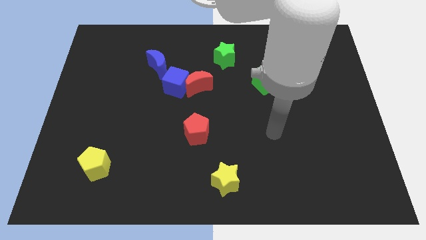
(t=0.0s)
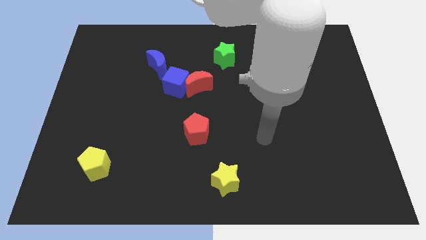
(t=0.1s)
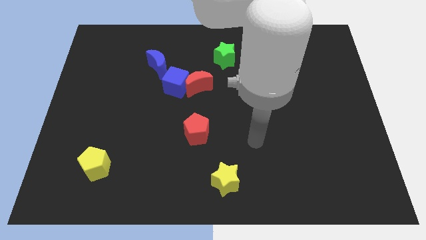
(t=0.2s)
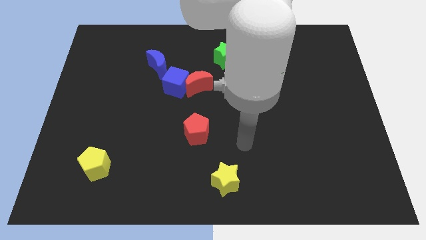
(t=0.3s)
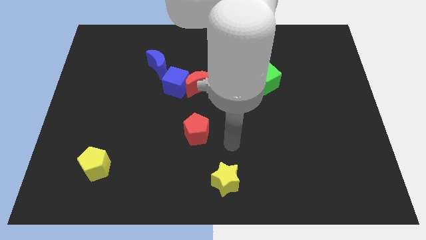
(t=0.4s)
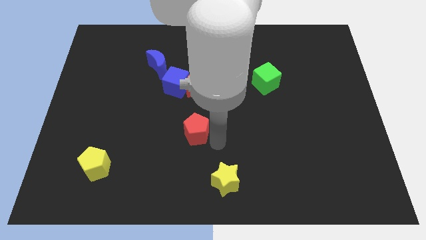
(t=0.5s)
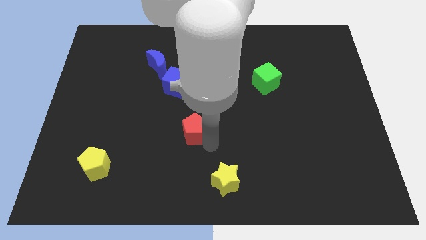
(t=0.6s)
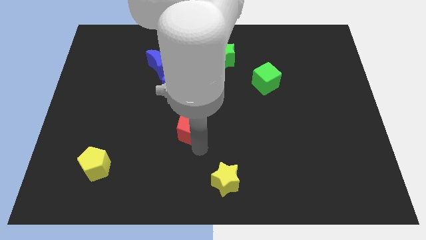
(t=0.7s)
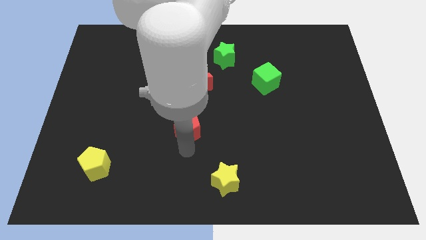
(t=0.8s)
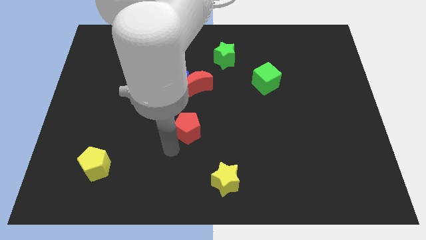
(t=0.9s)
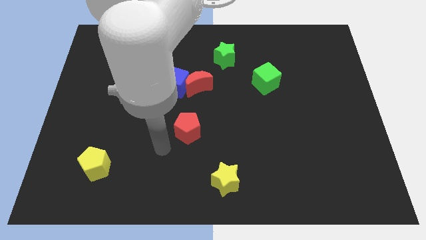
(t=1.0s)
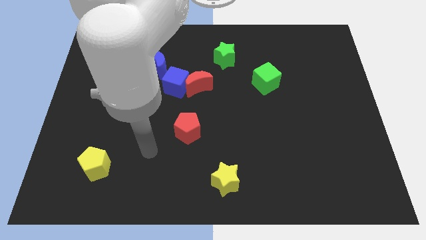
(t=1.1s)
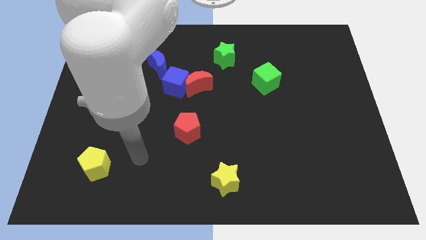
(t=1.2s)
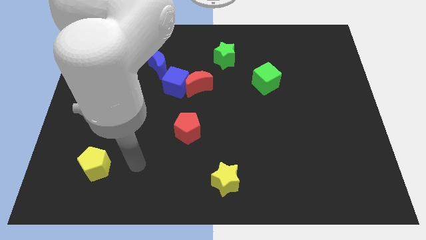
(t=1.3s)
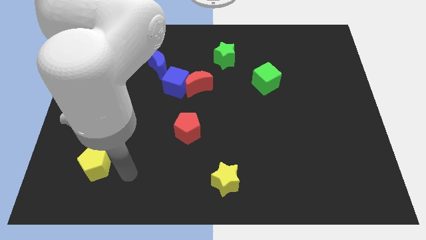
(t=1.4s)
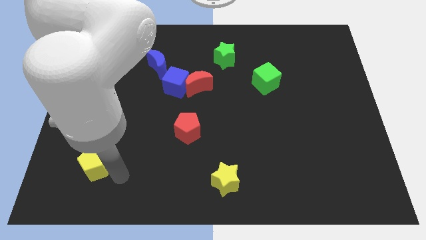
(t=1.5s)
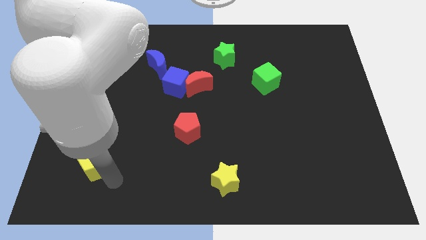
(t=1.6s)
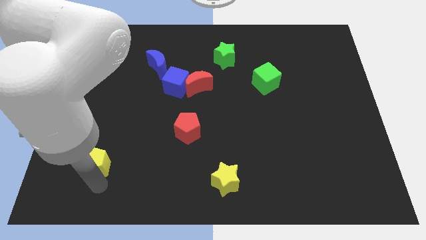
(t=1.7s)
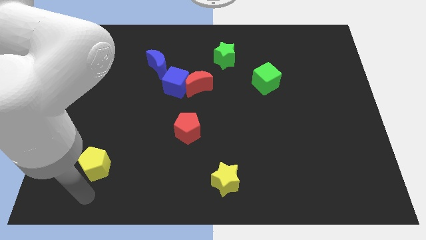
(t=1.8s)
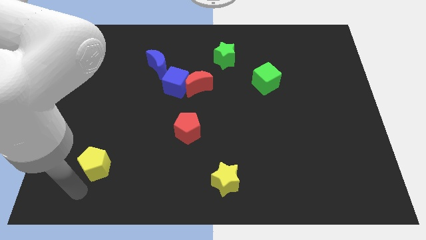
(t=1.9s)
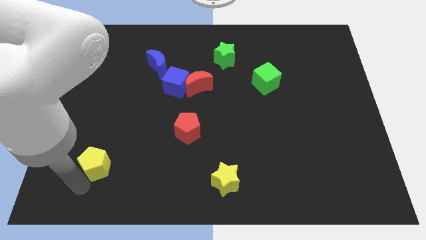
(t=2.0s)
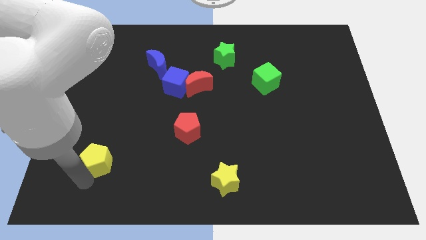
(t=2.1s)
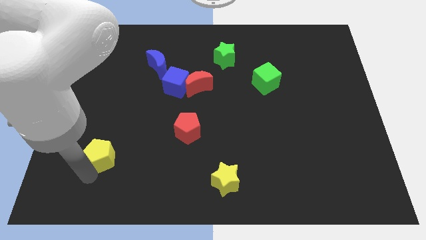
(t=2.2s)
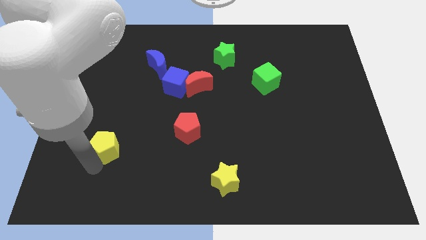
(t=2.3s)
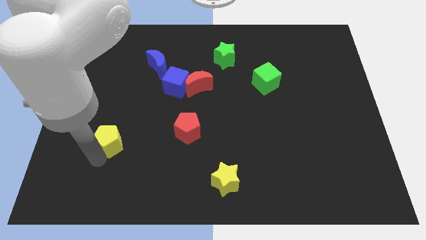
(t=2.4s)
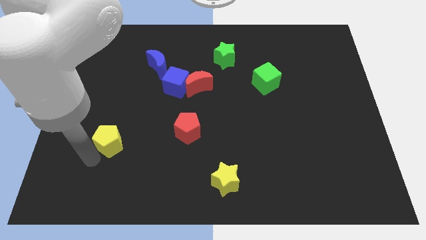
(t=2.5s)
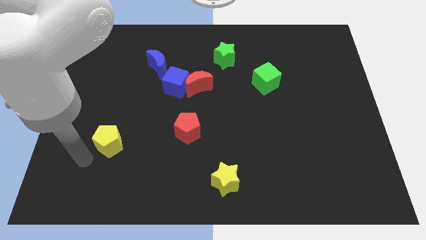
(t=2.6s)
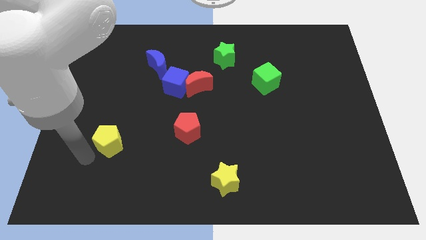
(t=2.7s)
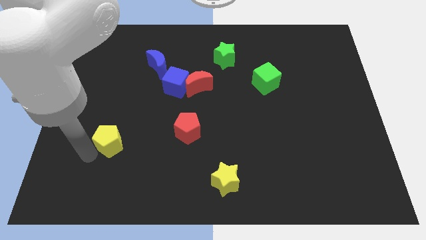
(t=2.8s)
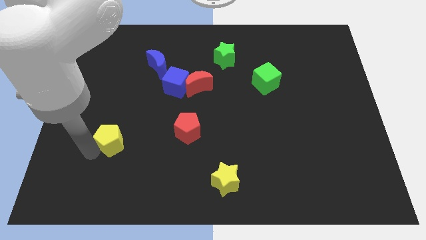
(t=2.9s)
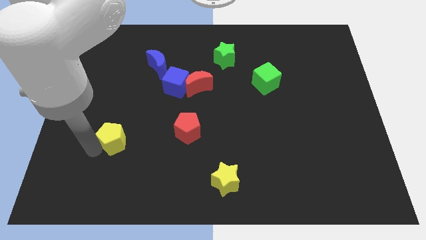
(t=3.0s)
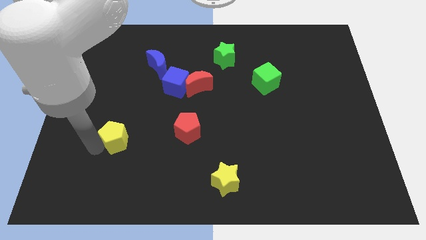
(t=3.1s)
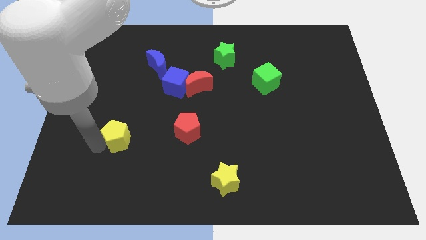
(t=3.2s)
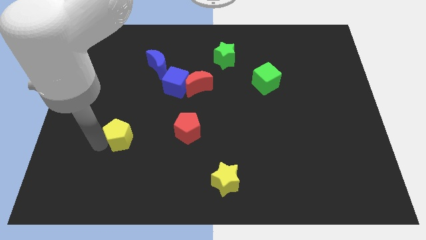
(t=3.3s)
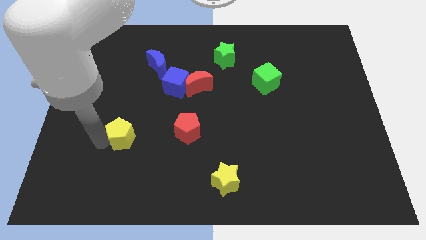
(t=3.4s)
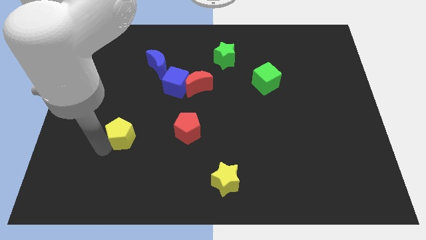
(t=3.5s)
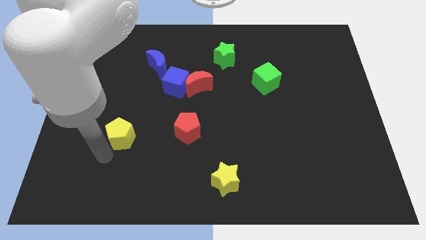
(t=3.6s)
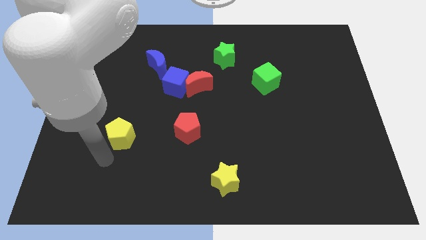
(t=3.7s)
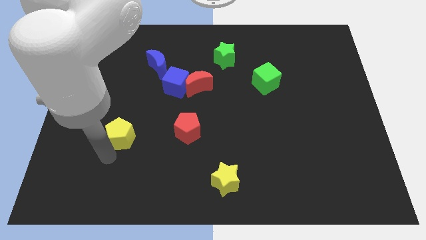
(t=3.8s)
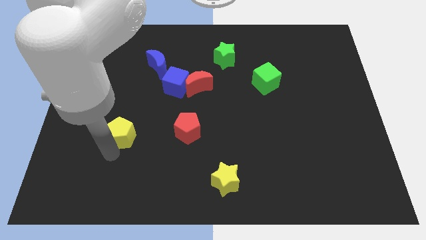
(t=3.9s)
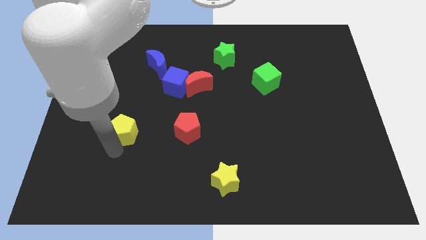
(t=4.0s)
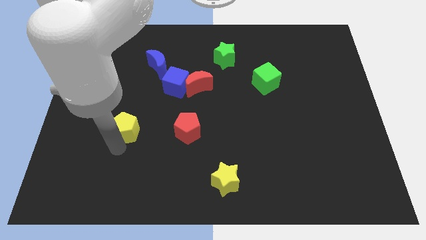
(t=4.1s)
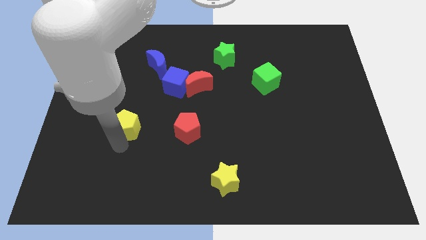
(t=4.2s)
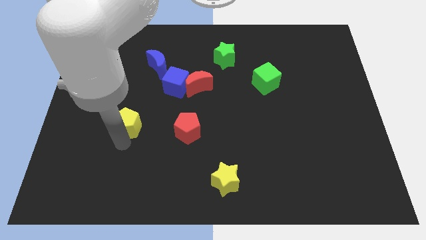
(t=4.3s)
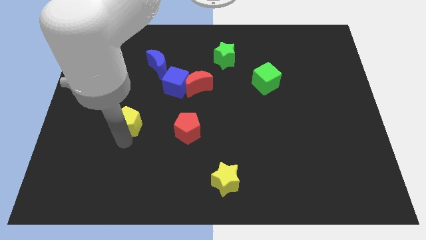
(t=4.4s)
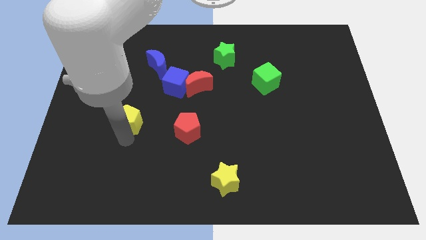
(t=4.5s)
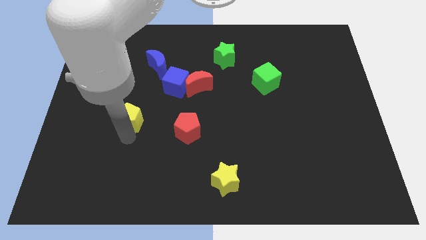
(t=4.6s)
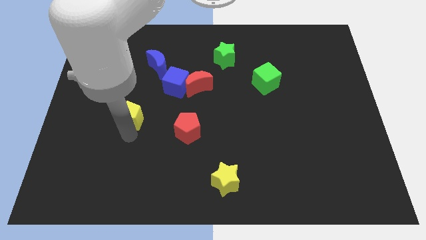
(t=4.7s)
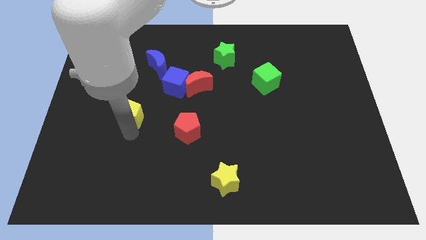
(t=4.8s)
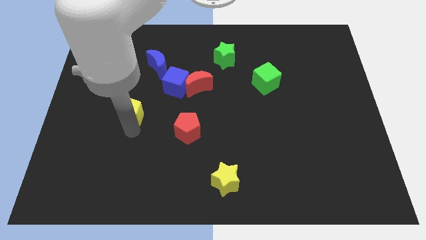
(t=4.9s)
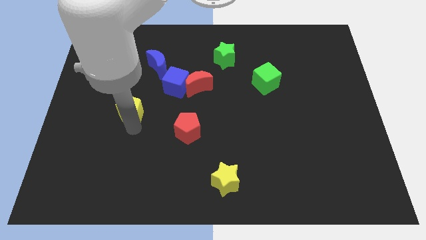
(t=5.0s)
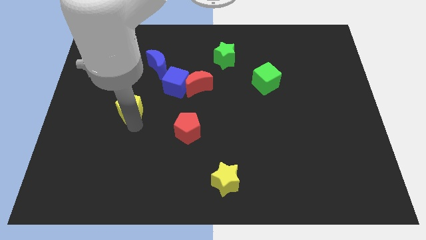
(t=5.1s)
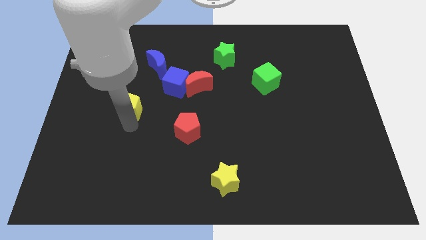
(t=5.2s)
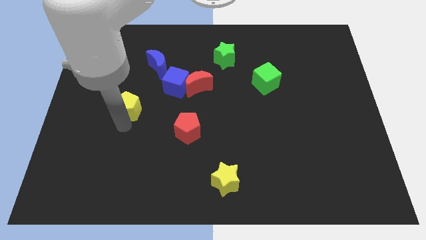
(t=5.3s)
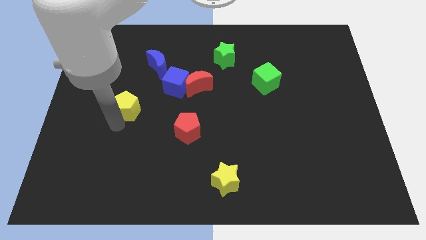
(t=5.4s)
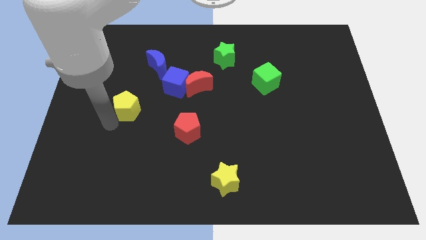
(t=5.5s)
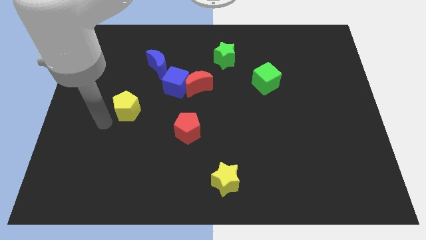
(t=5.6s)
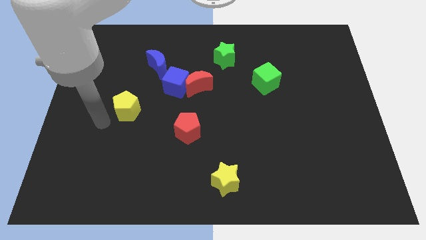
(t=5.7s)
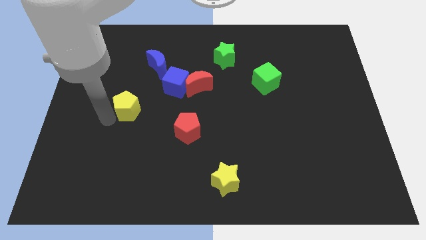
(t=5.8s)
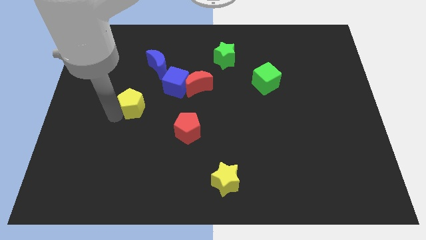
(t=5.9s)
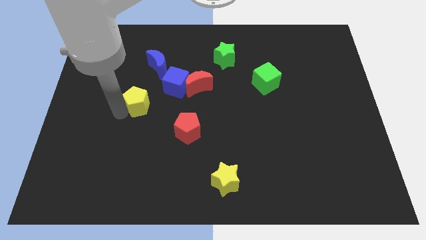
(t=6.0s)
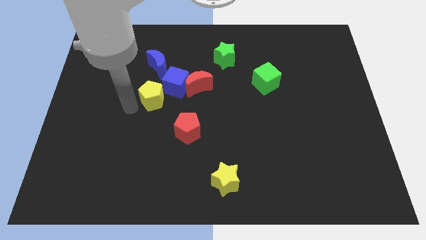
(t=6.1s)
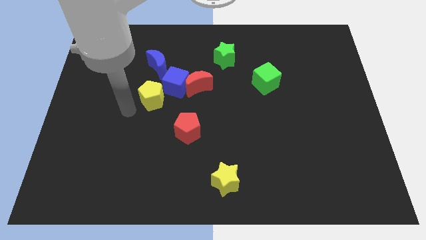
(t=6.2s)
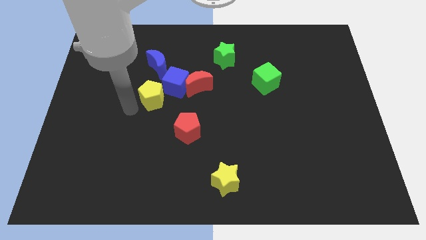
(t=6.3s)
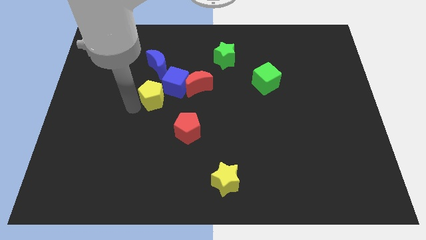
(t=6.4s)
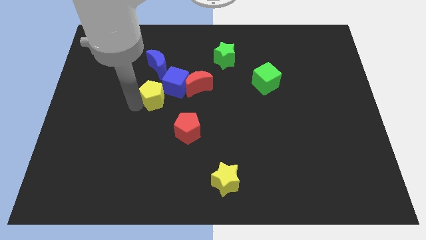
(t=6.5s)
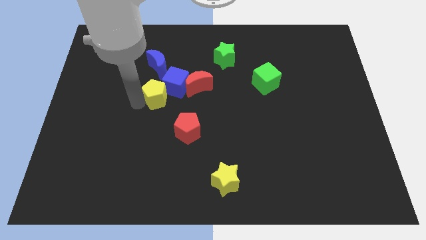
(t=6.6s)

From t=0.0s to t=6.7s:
push the yellow pentagon next to the blue cube

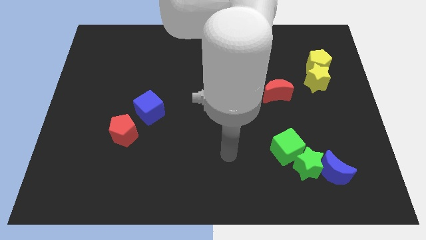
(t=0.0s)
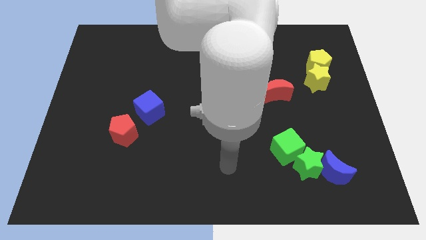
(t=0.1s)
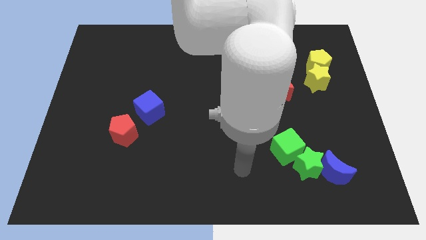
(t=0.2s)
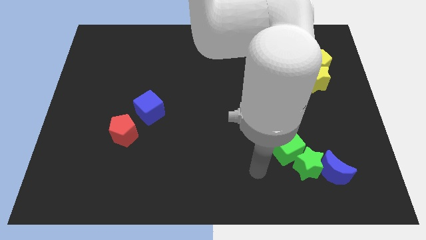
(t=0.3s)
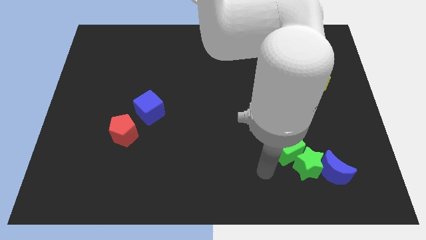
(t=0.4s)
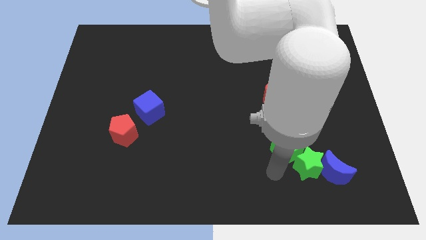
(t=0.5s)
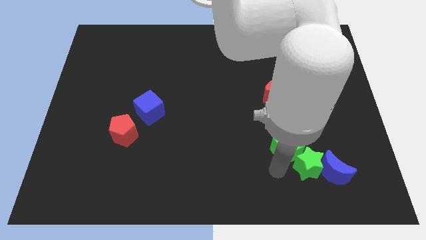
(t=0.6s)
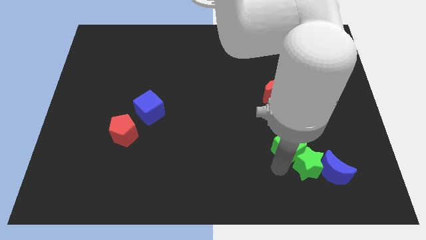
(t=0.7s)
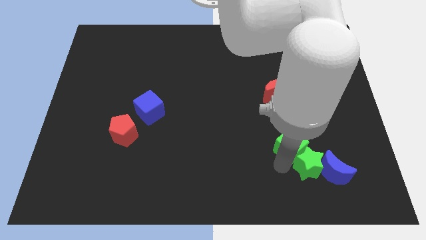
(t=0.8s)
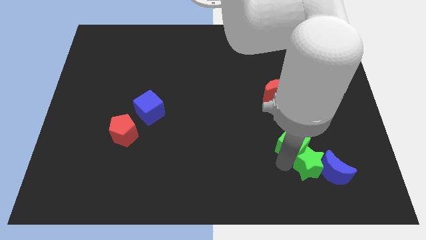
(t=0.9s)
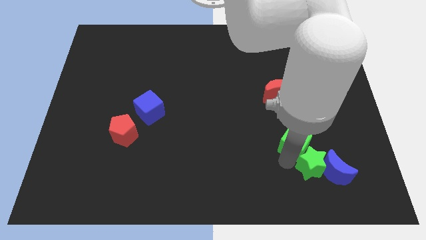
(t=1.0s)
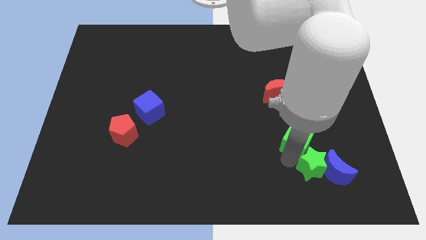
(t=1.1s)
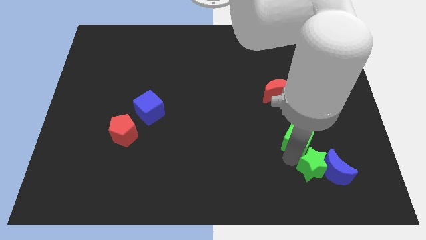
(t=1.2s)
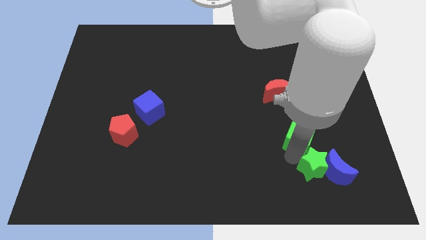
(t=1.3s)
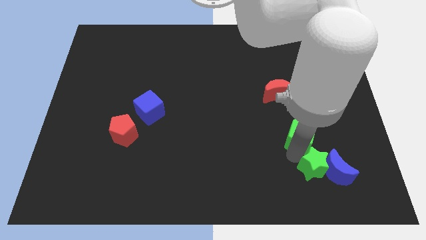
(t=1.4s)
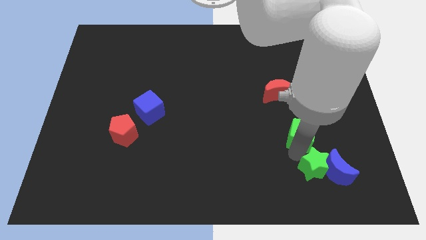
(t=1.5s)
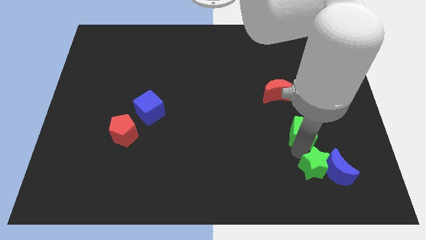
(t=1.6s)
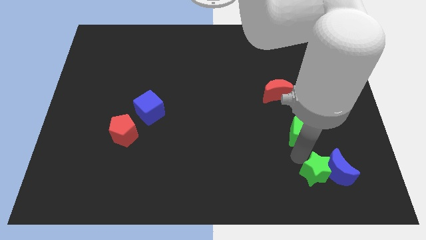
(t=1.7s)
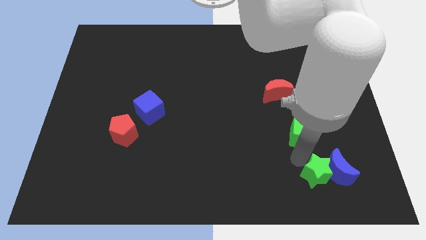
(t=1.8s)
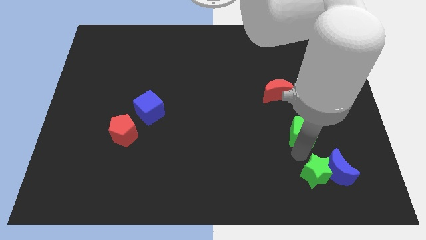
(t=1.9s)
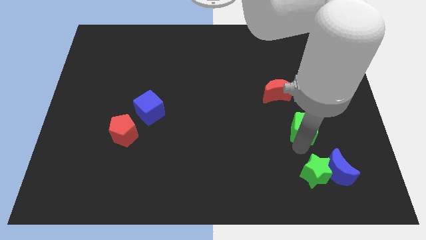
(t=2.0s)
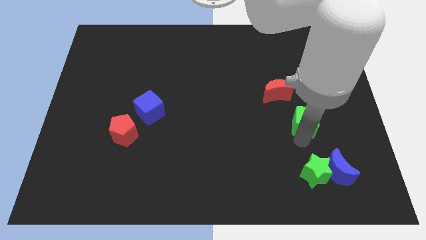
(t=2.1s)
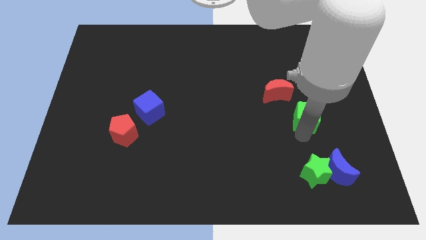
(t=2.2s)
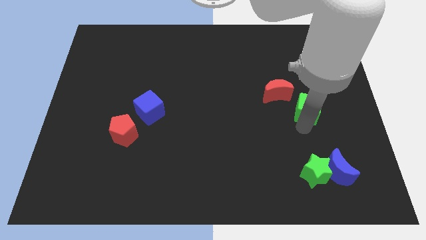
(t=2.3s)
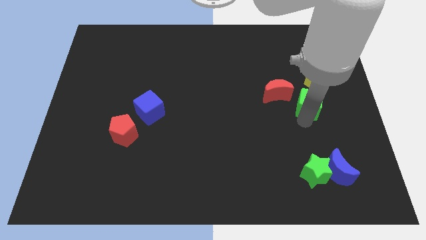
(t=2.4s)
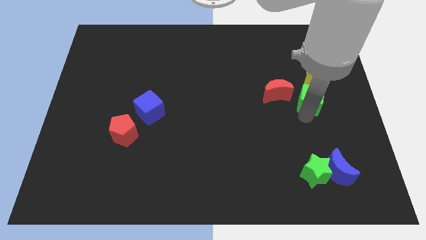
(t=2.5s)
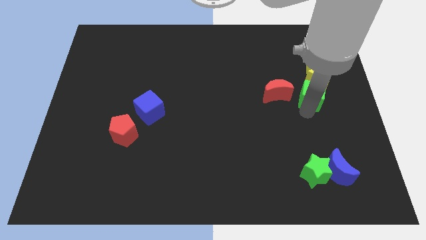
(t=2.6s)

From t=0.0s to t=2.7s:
push the green cube towards the yellow star
